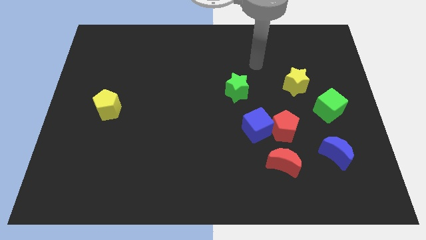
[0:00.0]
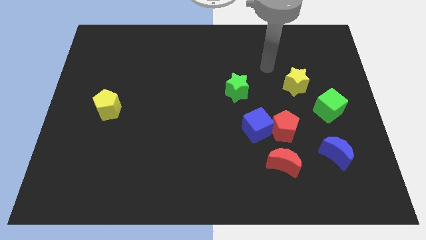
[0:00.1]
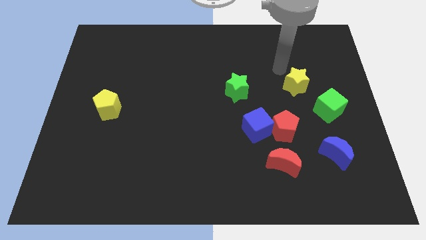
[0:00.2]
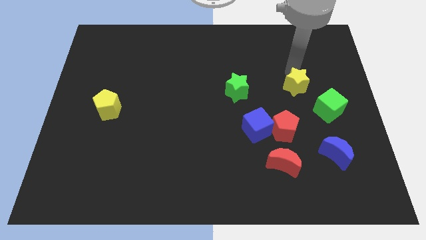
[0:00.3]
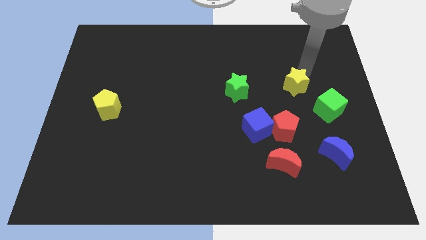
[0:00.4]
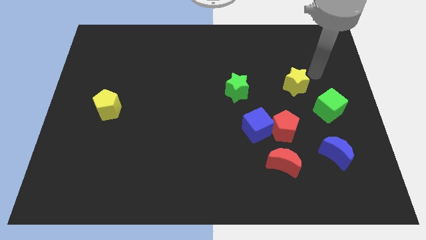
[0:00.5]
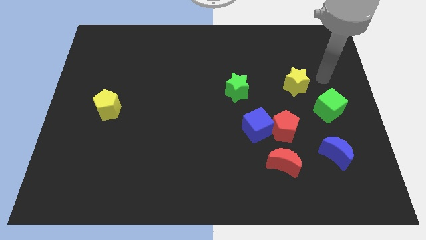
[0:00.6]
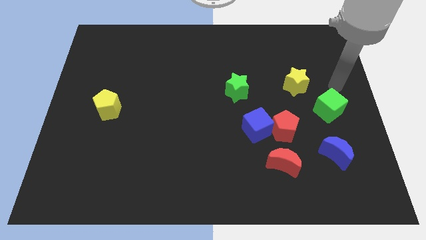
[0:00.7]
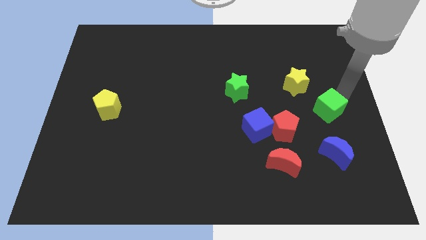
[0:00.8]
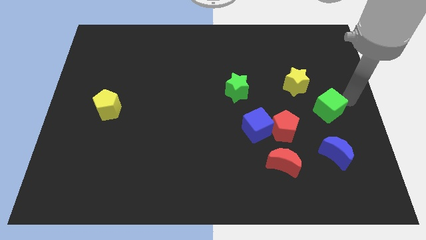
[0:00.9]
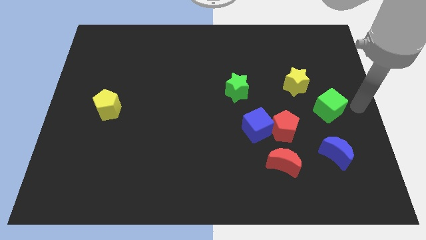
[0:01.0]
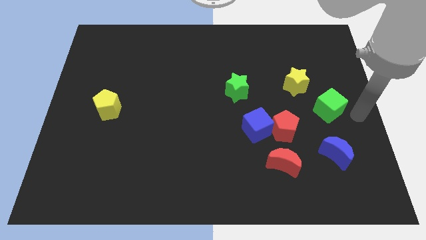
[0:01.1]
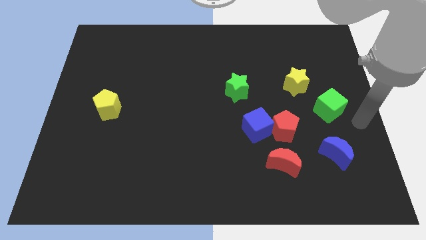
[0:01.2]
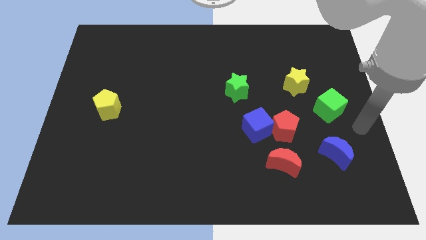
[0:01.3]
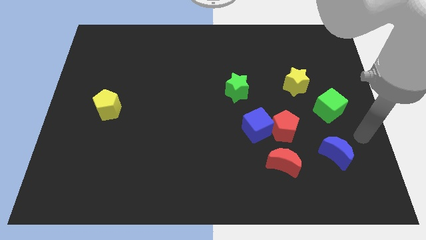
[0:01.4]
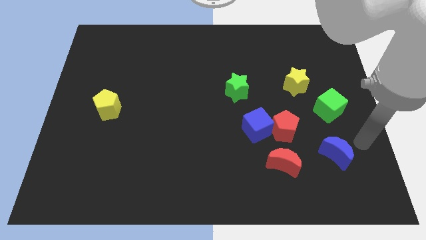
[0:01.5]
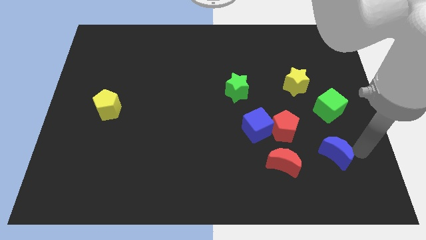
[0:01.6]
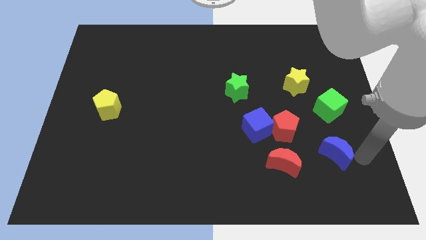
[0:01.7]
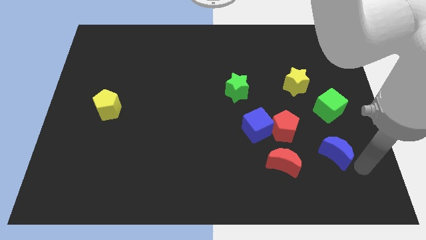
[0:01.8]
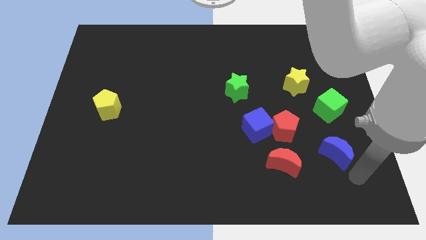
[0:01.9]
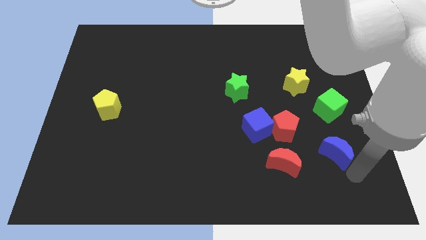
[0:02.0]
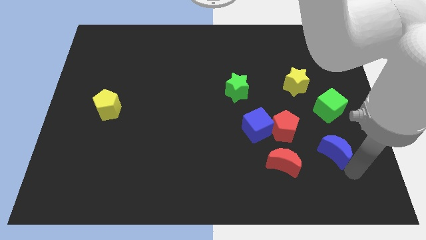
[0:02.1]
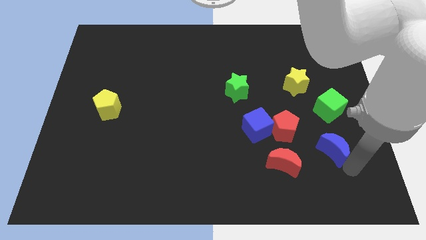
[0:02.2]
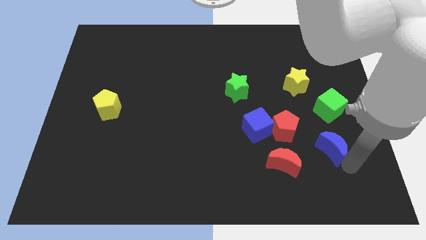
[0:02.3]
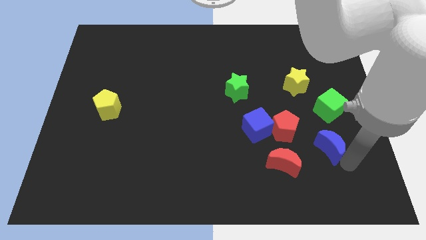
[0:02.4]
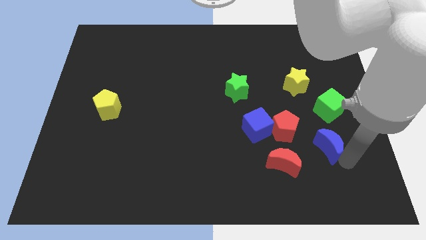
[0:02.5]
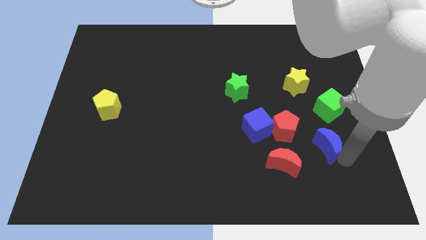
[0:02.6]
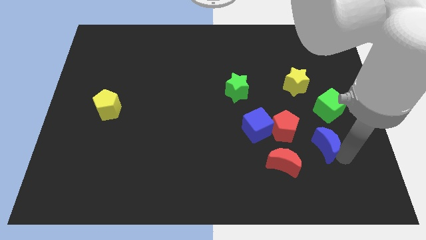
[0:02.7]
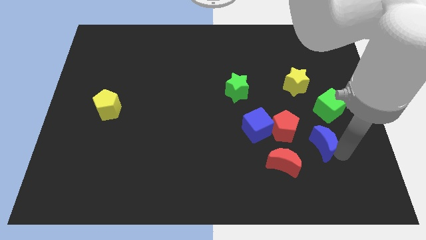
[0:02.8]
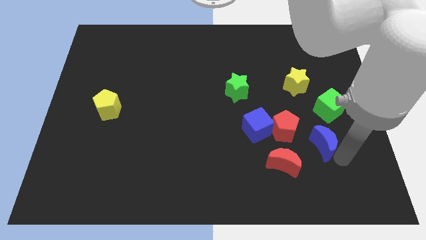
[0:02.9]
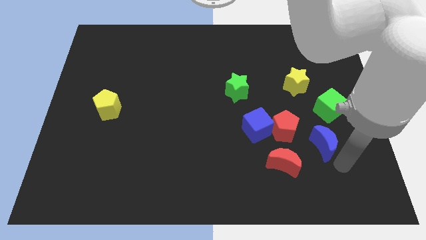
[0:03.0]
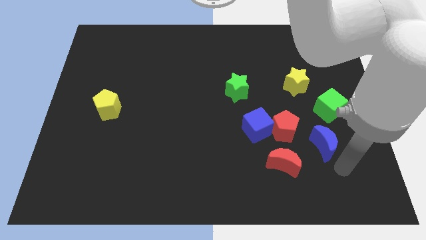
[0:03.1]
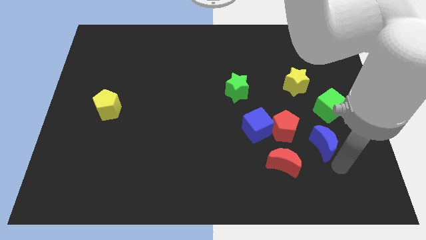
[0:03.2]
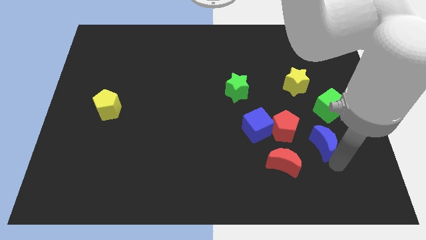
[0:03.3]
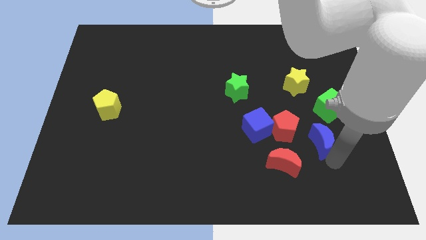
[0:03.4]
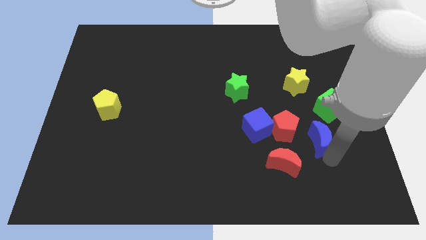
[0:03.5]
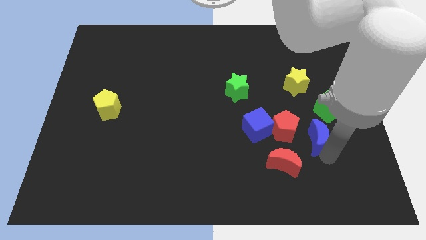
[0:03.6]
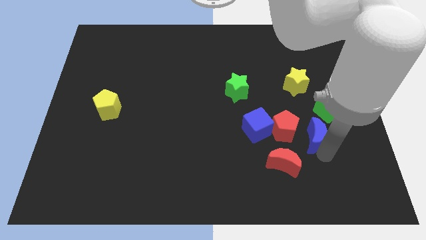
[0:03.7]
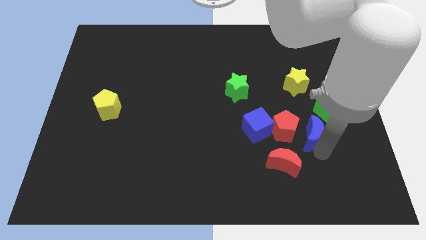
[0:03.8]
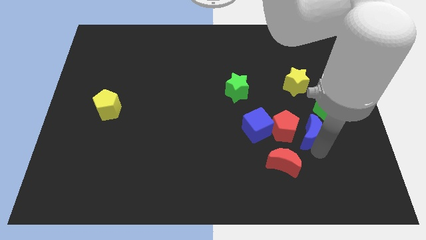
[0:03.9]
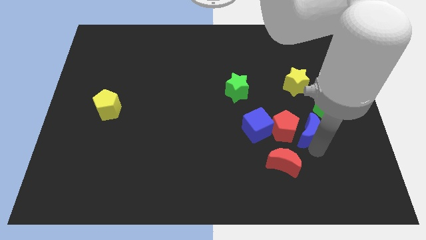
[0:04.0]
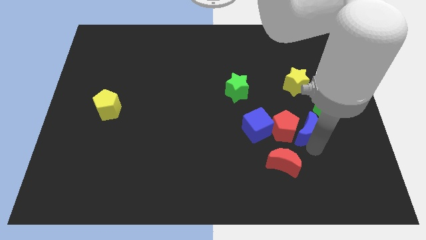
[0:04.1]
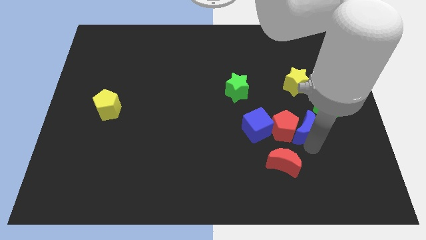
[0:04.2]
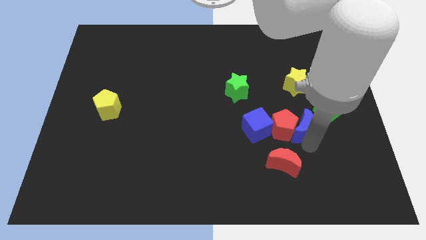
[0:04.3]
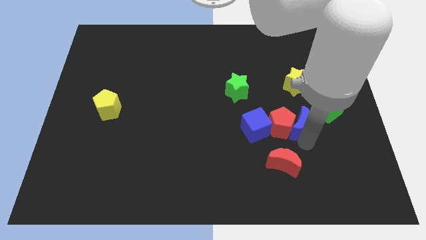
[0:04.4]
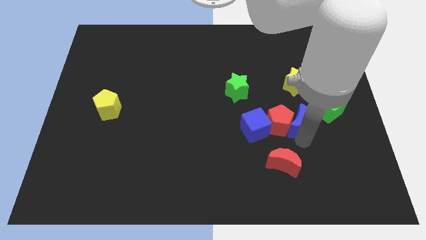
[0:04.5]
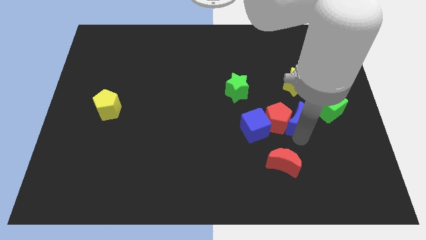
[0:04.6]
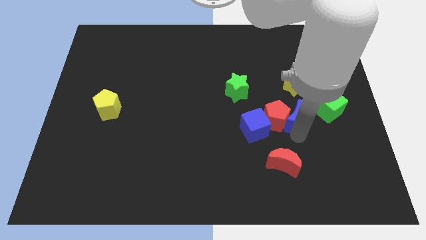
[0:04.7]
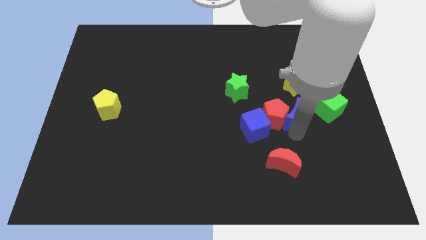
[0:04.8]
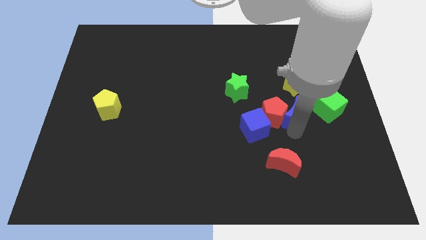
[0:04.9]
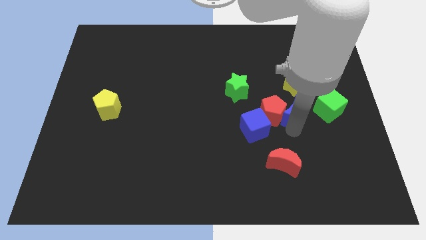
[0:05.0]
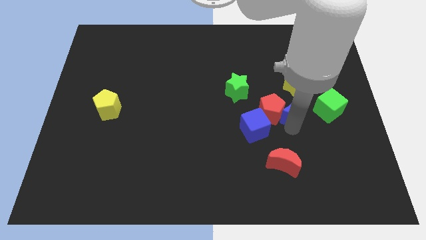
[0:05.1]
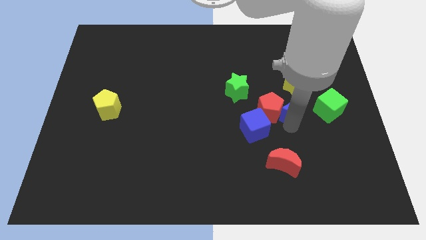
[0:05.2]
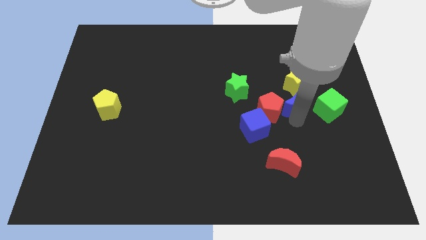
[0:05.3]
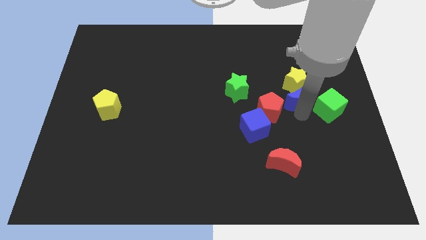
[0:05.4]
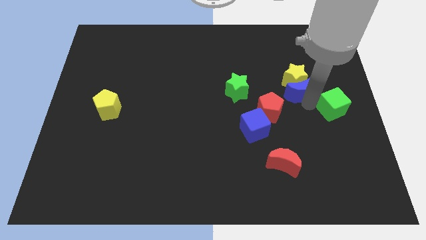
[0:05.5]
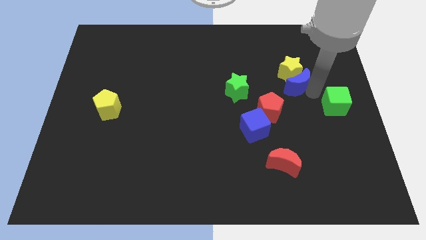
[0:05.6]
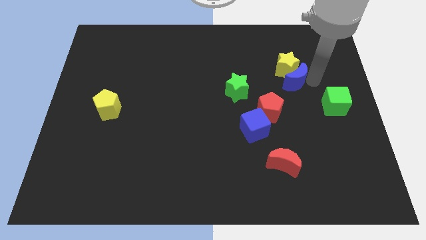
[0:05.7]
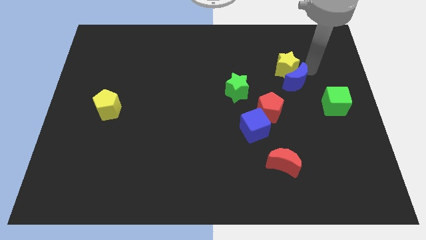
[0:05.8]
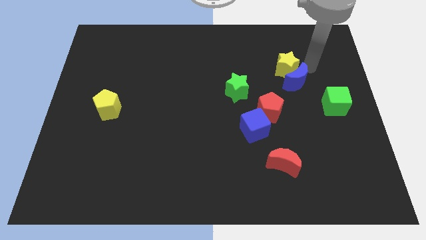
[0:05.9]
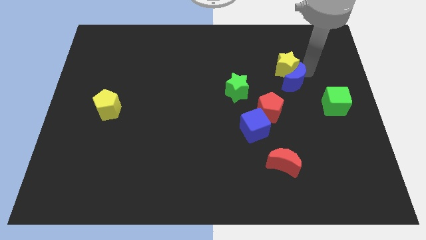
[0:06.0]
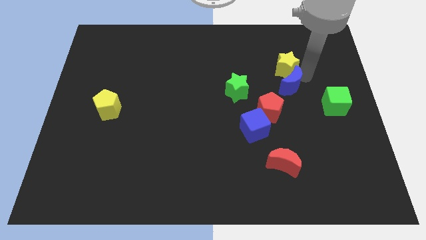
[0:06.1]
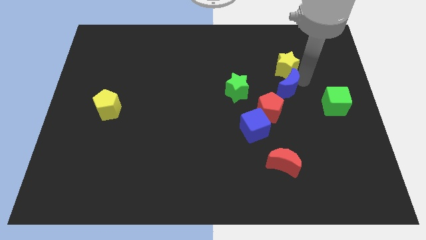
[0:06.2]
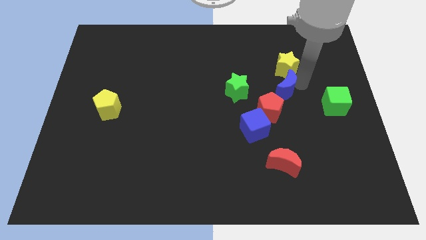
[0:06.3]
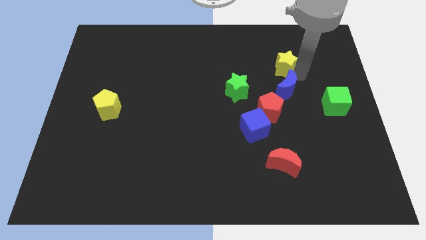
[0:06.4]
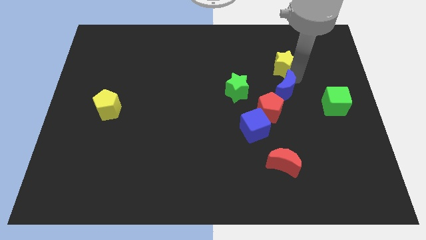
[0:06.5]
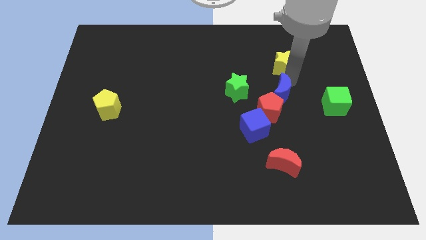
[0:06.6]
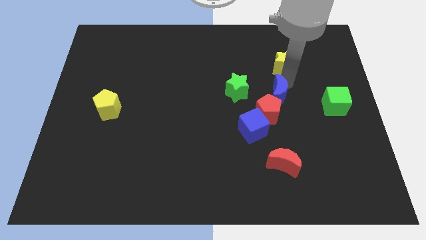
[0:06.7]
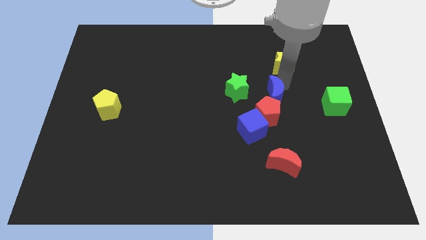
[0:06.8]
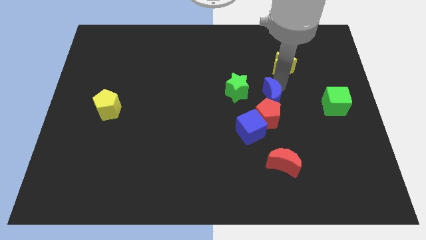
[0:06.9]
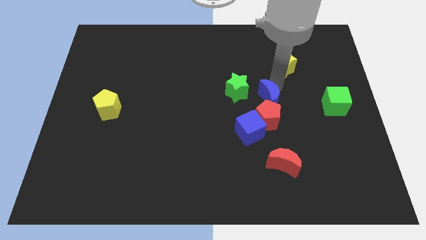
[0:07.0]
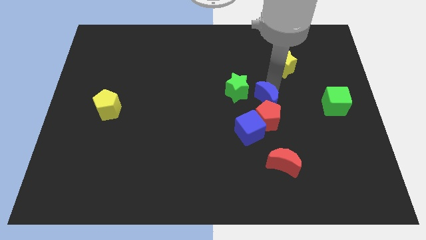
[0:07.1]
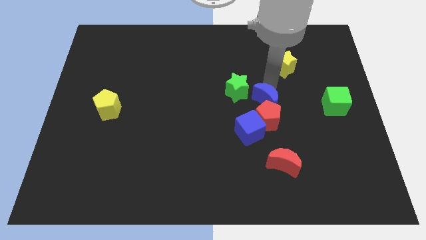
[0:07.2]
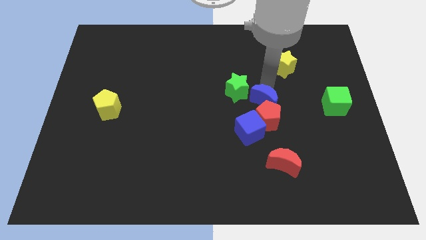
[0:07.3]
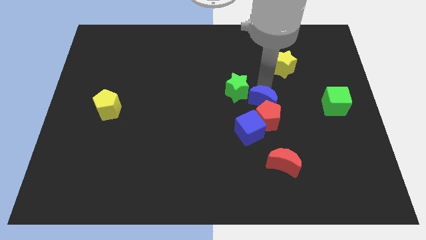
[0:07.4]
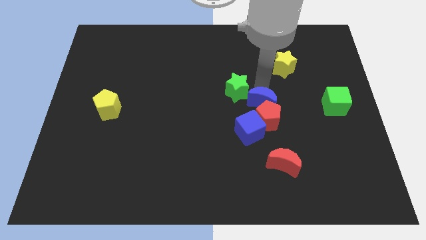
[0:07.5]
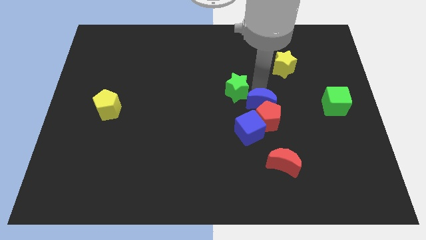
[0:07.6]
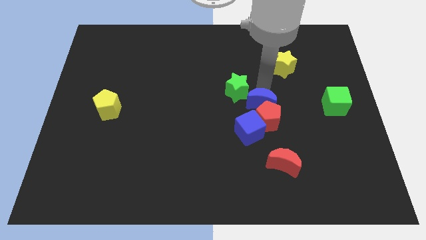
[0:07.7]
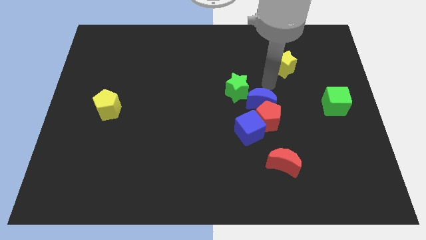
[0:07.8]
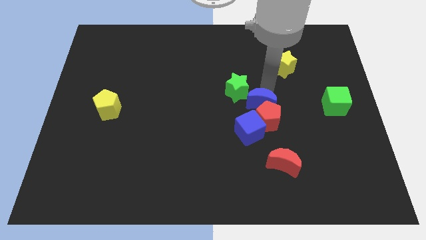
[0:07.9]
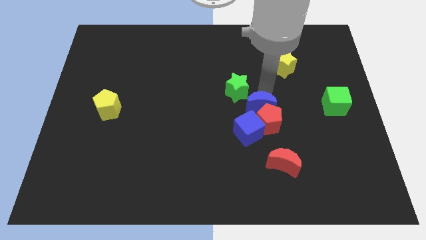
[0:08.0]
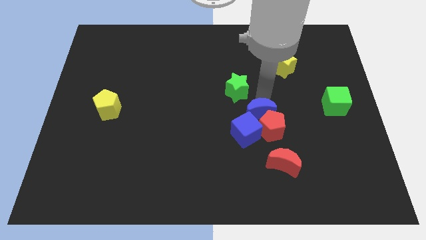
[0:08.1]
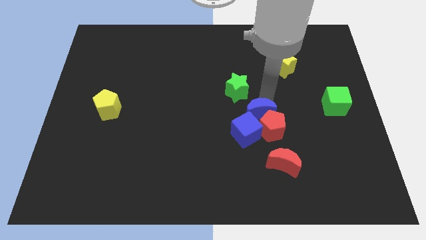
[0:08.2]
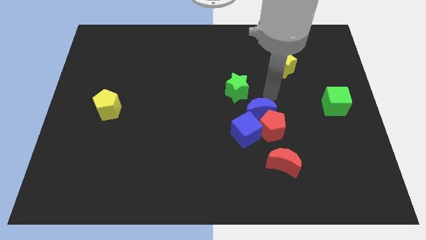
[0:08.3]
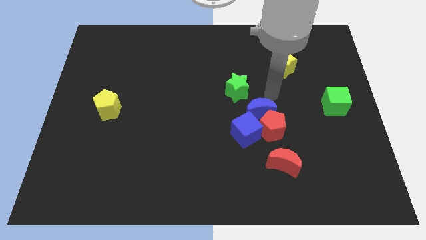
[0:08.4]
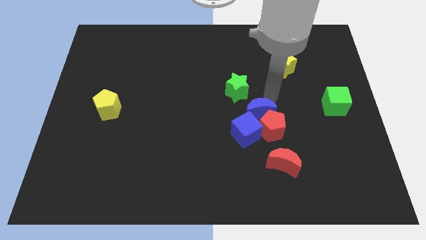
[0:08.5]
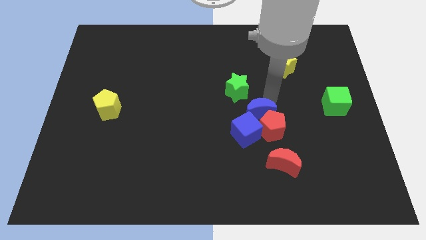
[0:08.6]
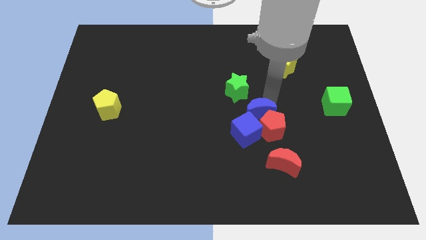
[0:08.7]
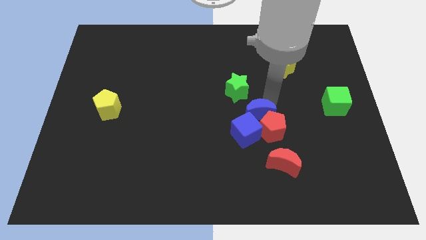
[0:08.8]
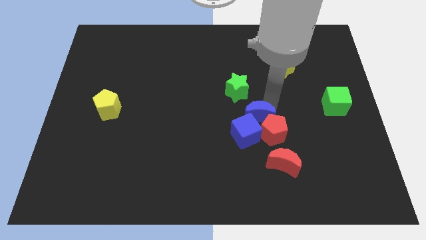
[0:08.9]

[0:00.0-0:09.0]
move the blue moon next to the blue cube
